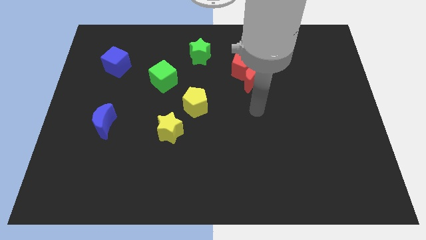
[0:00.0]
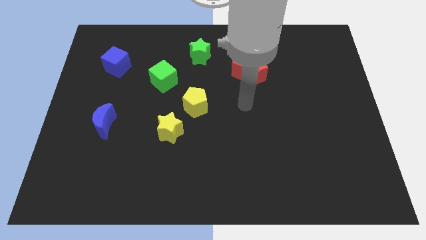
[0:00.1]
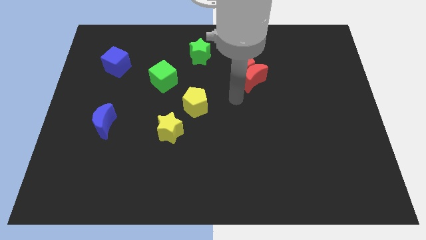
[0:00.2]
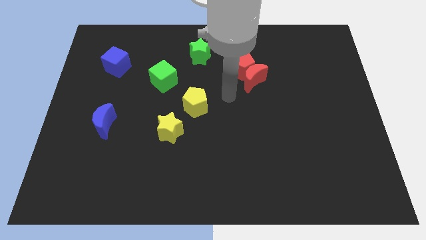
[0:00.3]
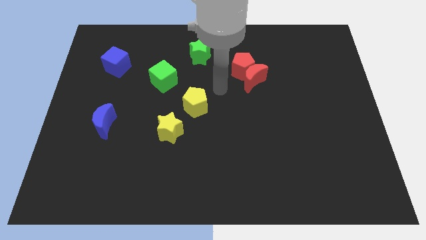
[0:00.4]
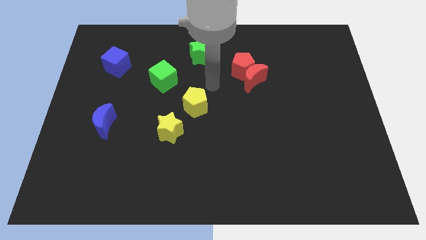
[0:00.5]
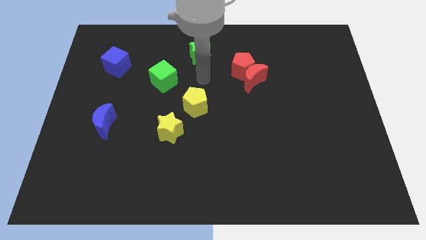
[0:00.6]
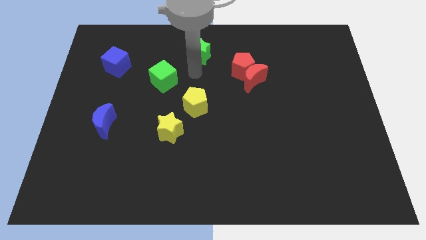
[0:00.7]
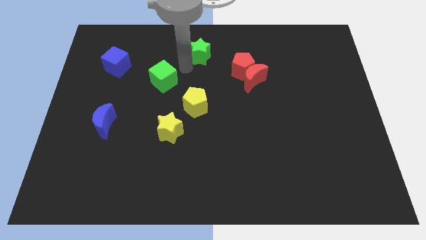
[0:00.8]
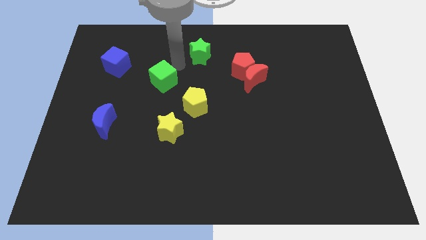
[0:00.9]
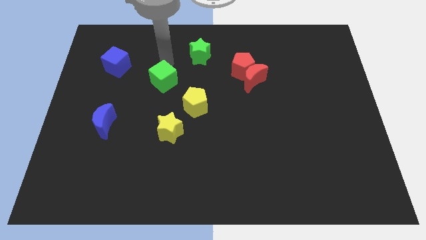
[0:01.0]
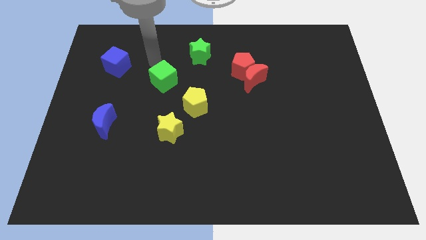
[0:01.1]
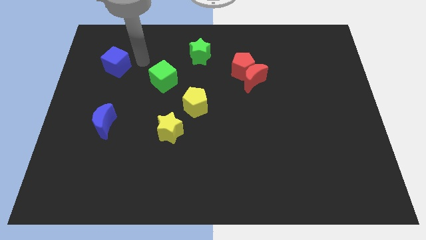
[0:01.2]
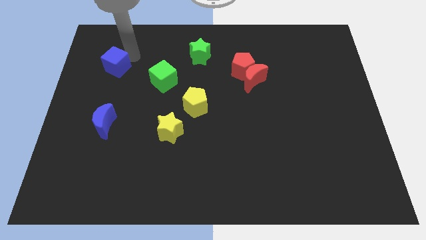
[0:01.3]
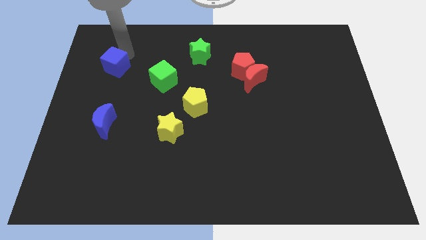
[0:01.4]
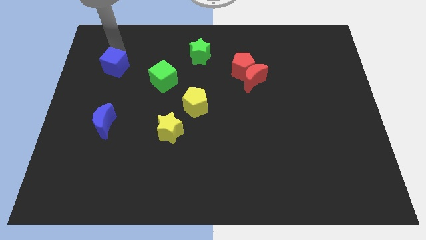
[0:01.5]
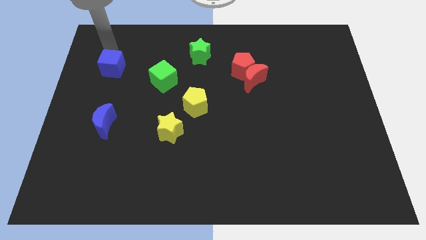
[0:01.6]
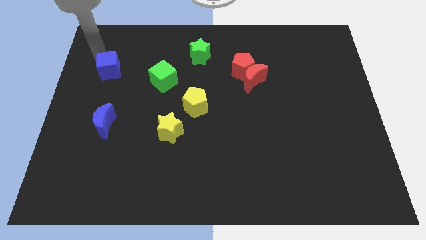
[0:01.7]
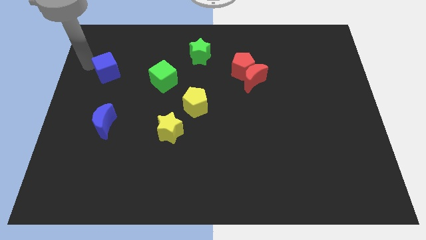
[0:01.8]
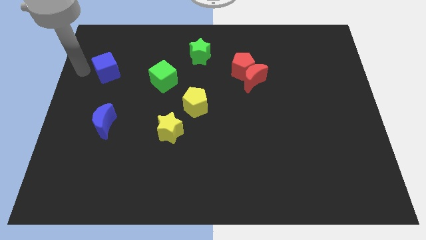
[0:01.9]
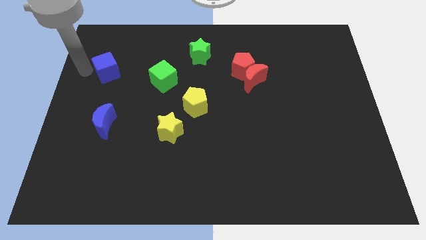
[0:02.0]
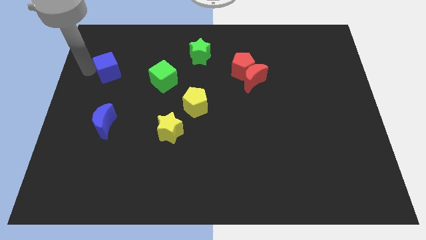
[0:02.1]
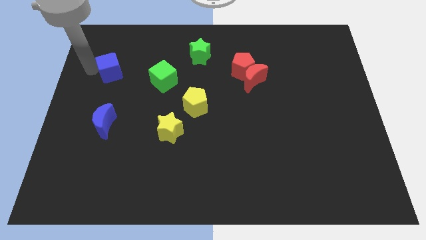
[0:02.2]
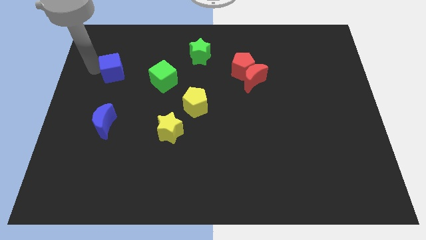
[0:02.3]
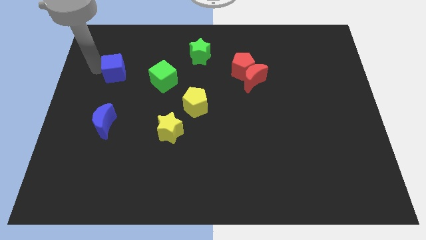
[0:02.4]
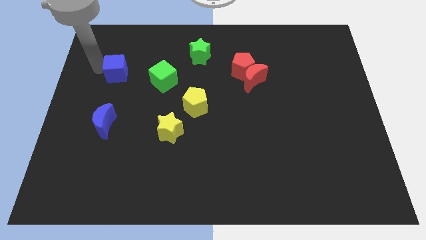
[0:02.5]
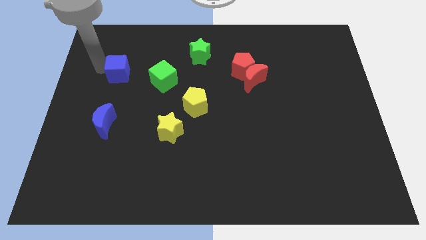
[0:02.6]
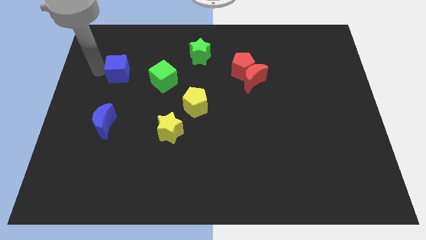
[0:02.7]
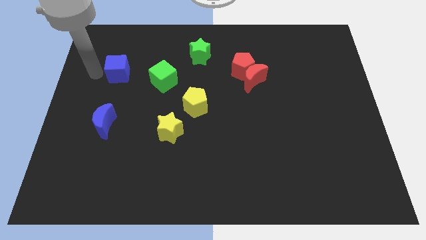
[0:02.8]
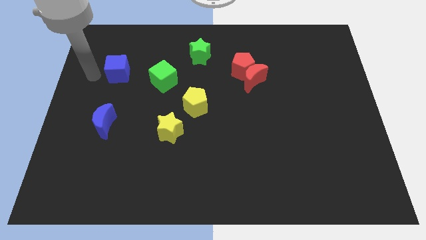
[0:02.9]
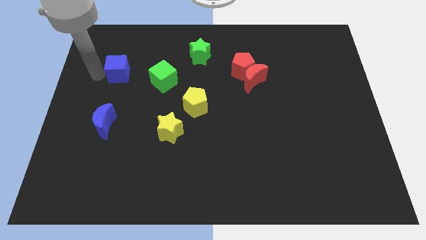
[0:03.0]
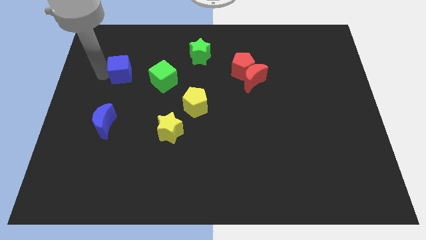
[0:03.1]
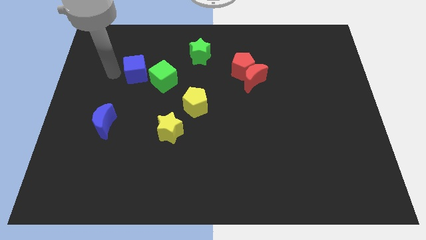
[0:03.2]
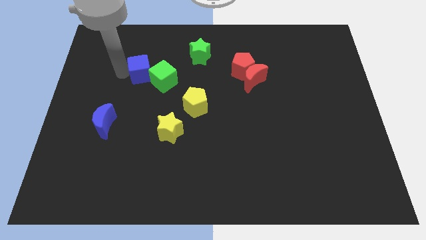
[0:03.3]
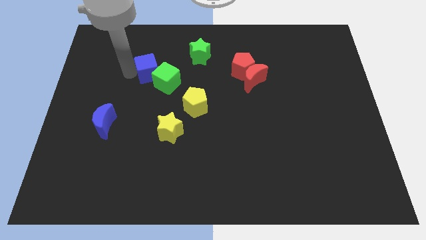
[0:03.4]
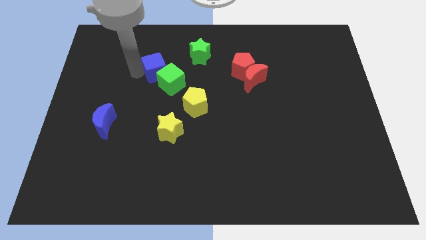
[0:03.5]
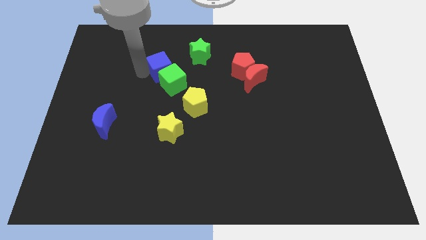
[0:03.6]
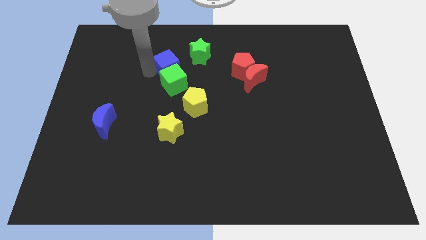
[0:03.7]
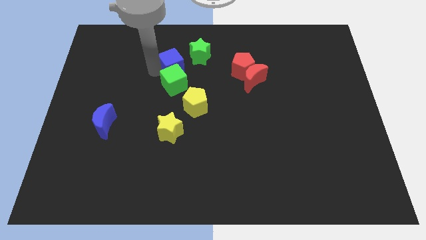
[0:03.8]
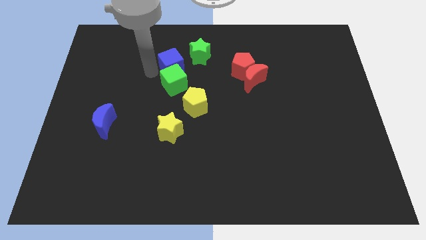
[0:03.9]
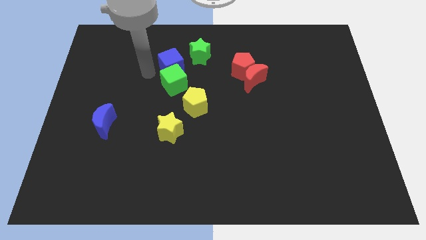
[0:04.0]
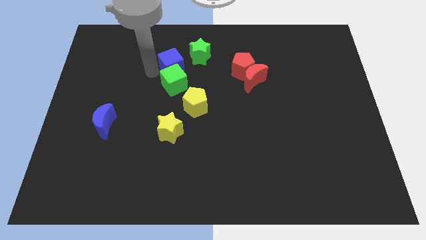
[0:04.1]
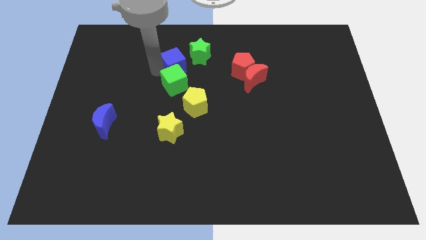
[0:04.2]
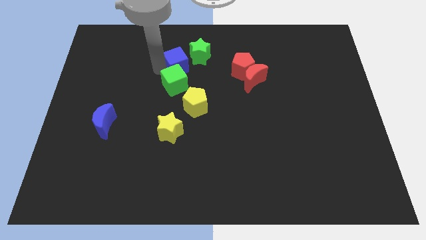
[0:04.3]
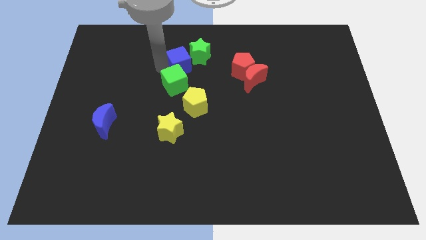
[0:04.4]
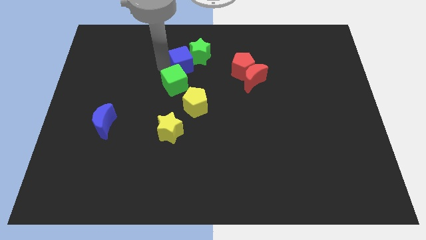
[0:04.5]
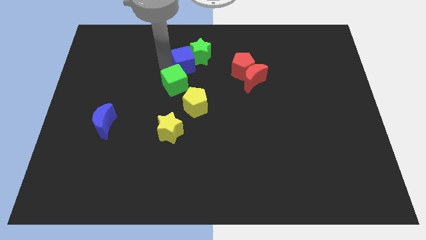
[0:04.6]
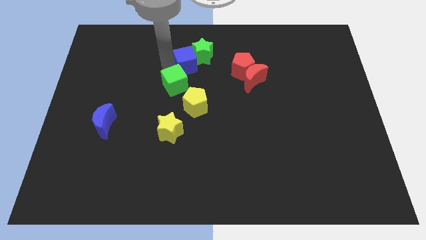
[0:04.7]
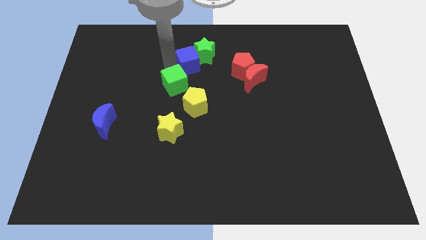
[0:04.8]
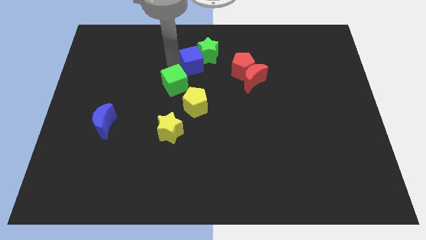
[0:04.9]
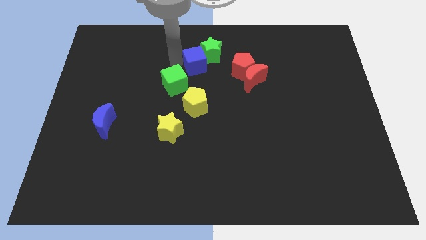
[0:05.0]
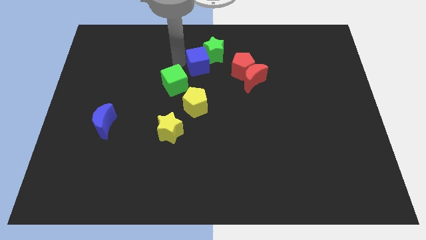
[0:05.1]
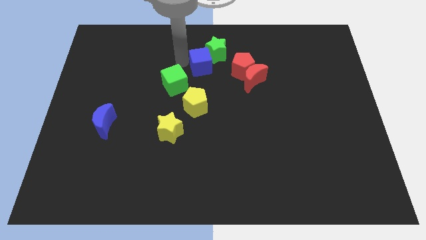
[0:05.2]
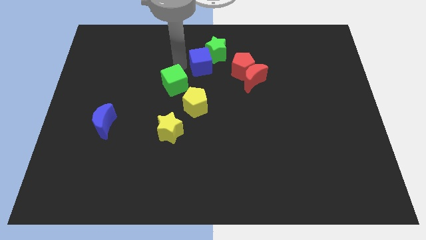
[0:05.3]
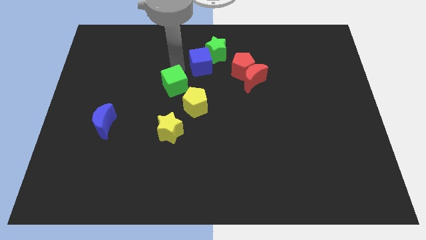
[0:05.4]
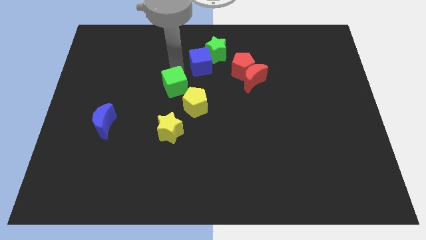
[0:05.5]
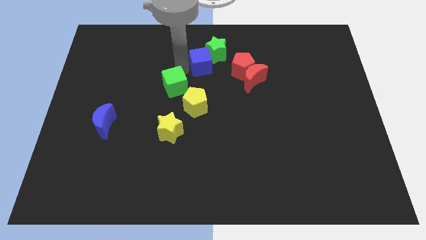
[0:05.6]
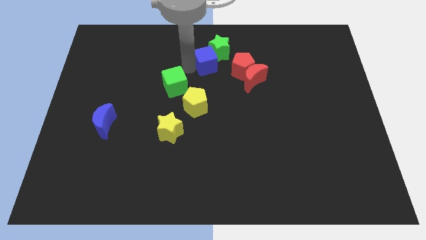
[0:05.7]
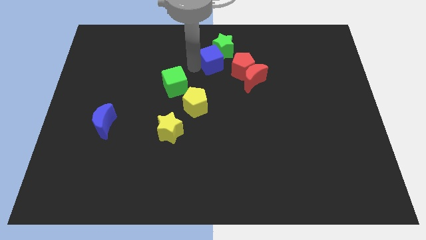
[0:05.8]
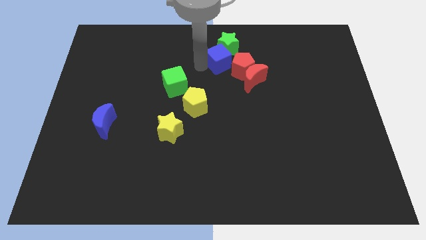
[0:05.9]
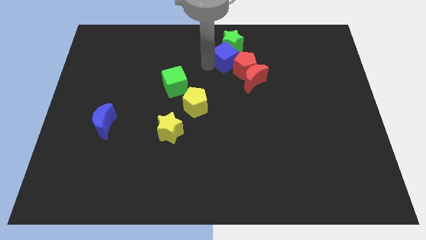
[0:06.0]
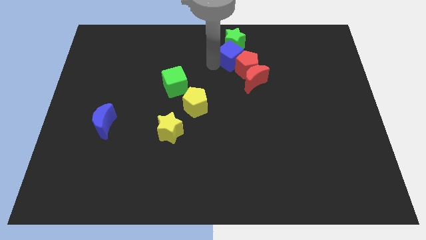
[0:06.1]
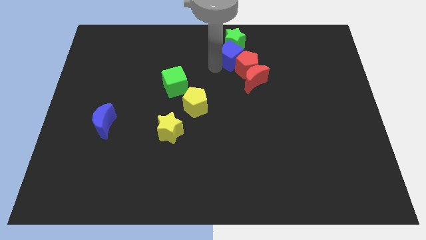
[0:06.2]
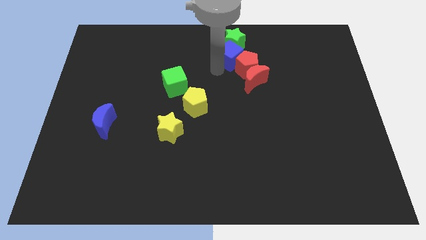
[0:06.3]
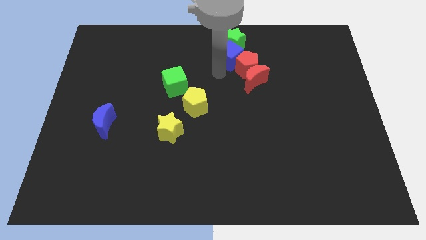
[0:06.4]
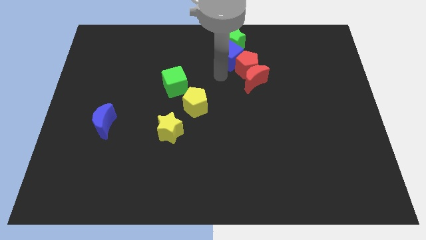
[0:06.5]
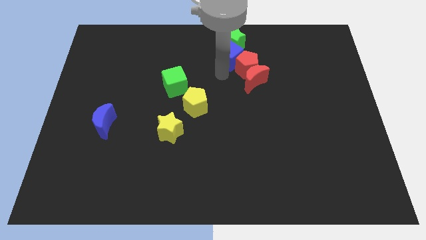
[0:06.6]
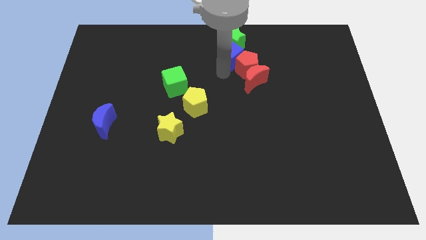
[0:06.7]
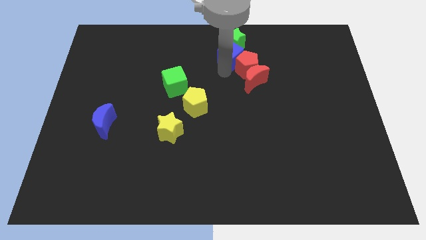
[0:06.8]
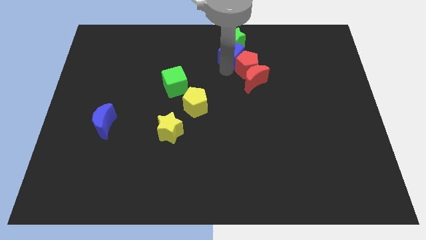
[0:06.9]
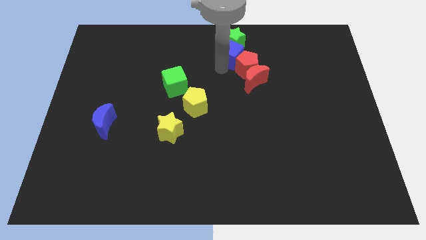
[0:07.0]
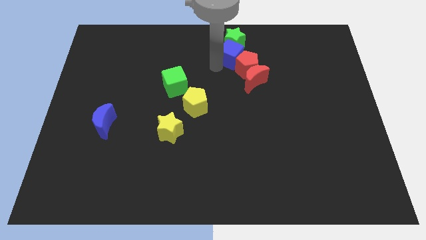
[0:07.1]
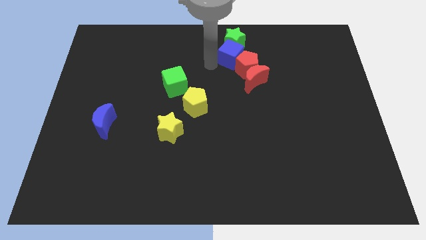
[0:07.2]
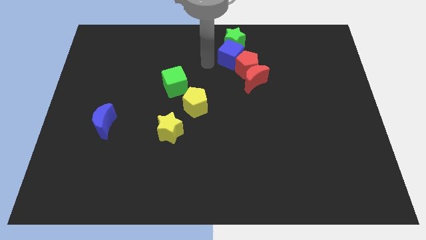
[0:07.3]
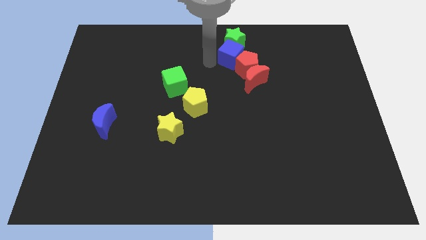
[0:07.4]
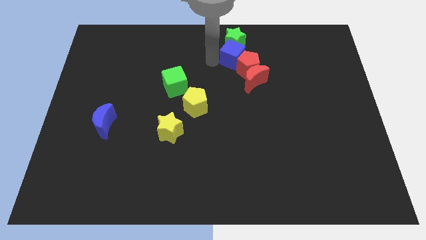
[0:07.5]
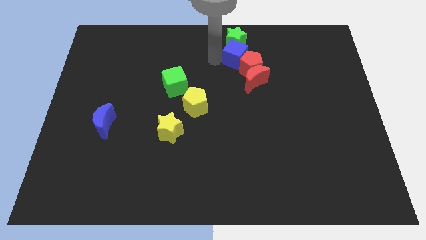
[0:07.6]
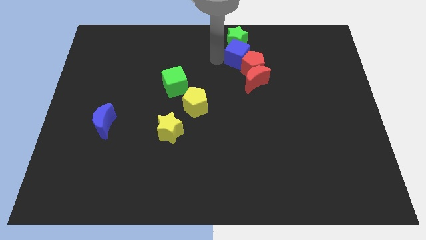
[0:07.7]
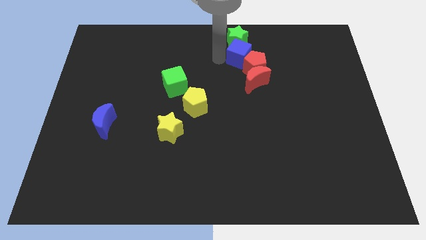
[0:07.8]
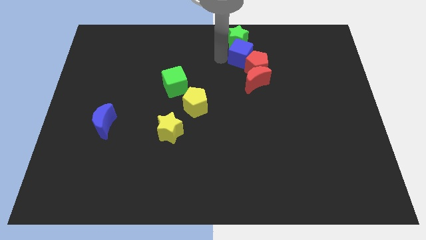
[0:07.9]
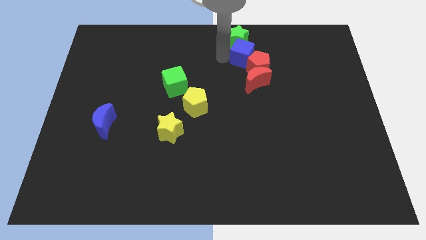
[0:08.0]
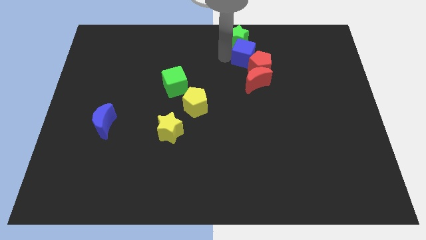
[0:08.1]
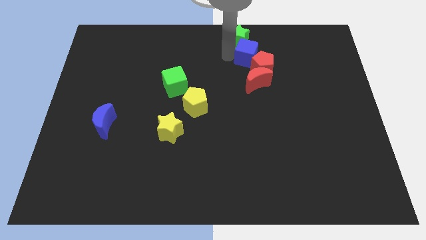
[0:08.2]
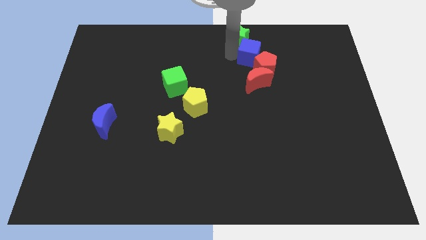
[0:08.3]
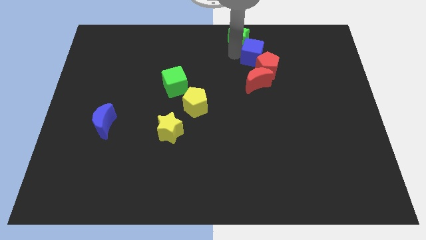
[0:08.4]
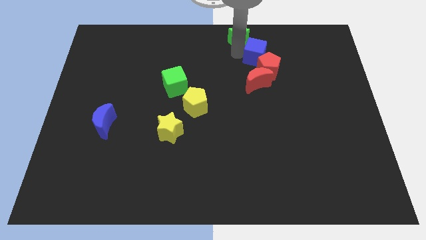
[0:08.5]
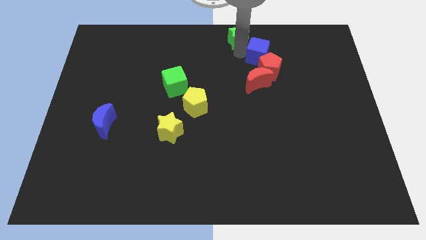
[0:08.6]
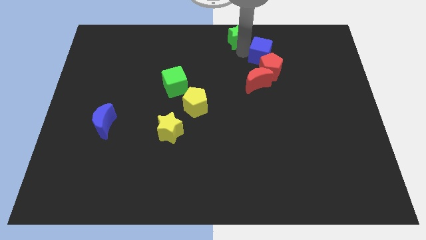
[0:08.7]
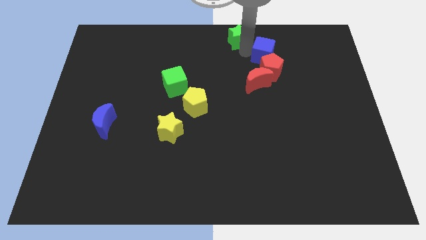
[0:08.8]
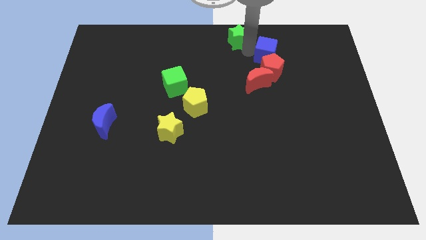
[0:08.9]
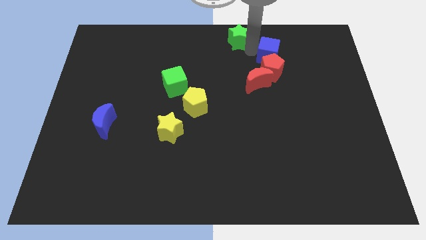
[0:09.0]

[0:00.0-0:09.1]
move the blue cube to the top right side of the red moon
